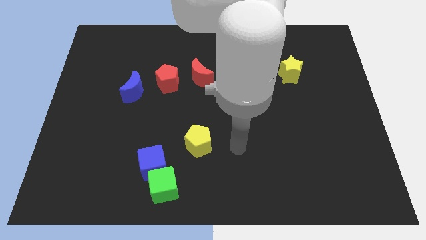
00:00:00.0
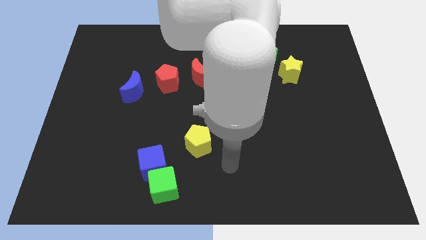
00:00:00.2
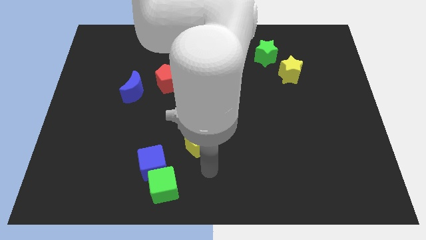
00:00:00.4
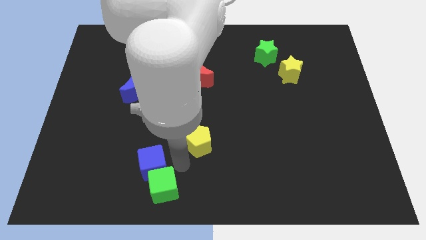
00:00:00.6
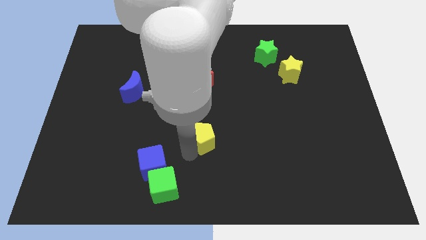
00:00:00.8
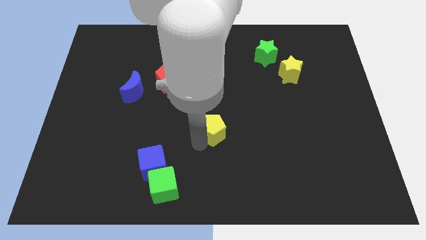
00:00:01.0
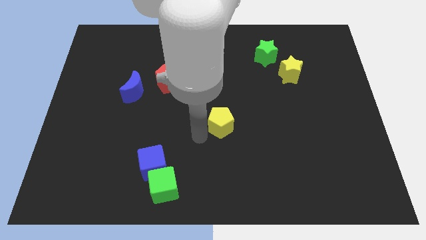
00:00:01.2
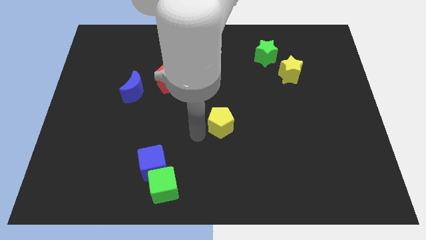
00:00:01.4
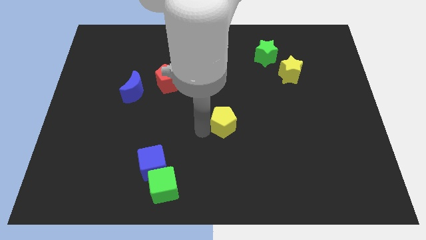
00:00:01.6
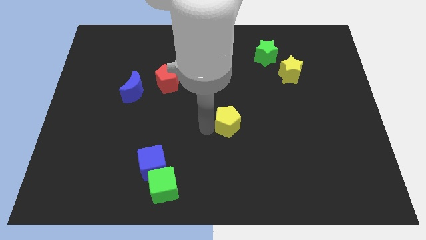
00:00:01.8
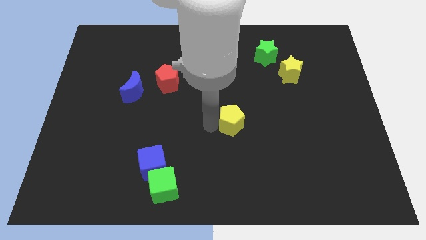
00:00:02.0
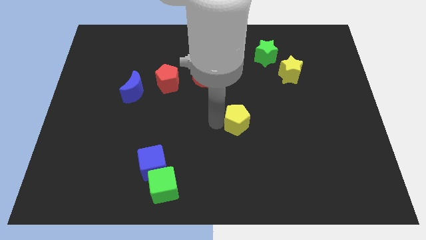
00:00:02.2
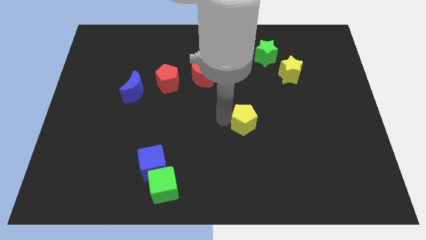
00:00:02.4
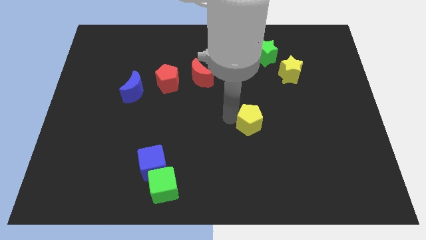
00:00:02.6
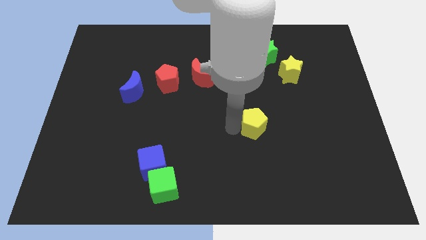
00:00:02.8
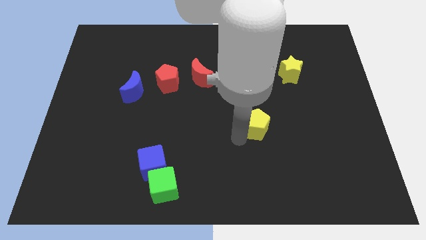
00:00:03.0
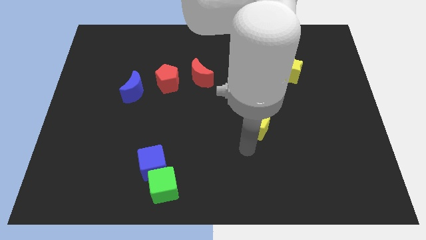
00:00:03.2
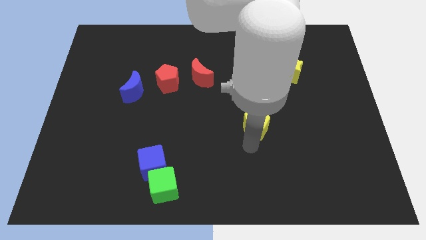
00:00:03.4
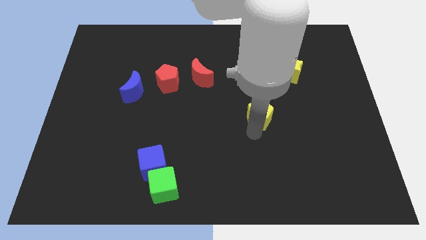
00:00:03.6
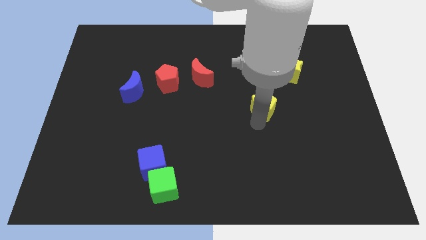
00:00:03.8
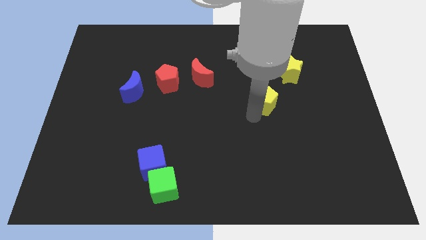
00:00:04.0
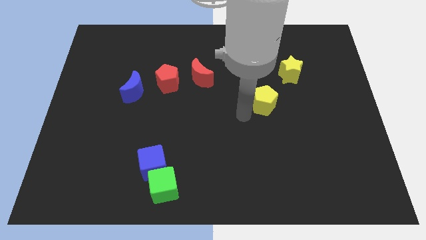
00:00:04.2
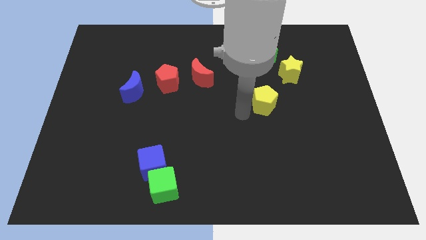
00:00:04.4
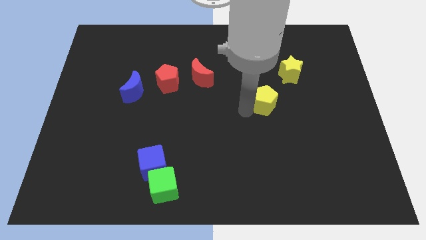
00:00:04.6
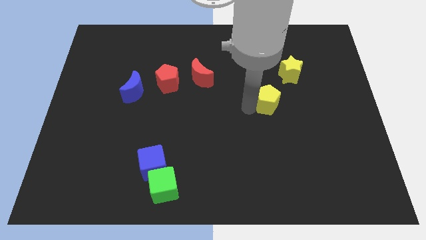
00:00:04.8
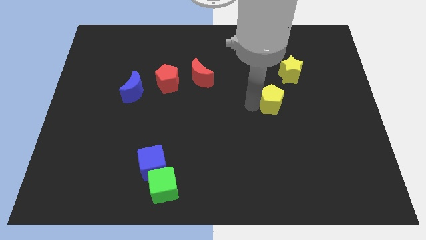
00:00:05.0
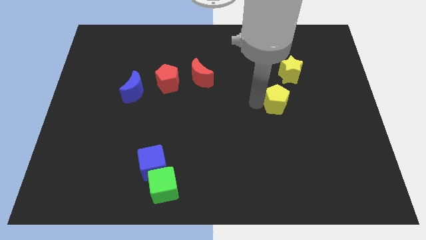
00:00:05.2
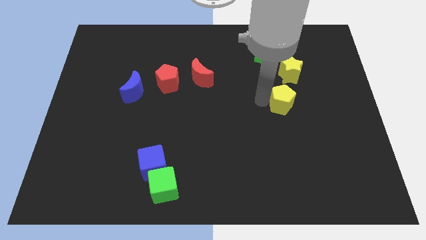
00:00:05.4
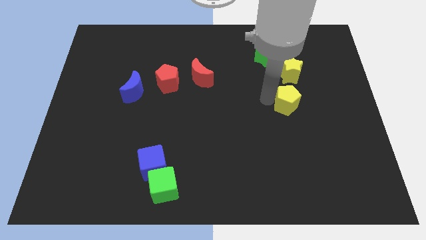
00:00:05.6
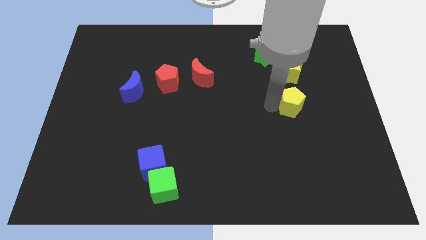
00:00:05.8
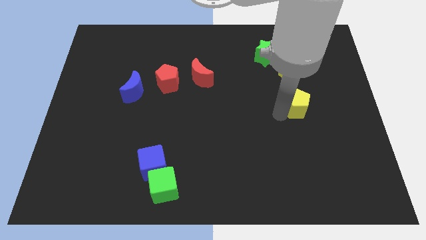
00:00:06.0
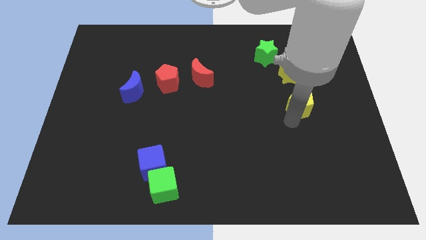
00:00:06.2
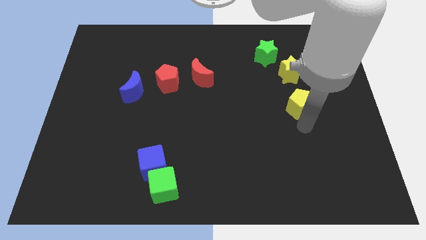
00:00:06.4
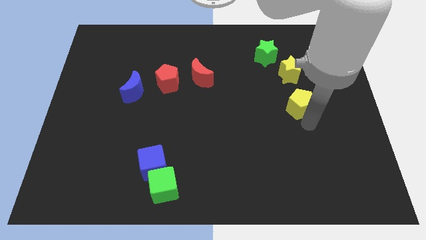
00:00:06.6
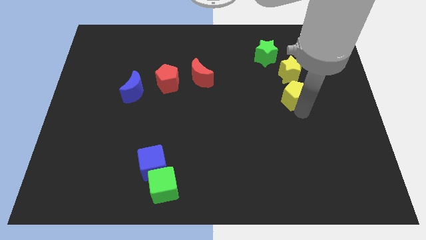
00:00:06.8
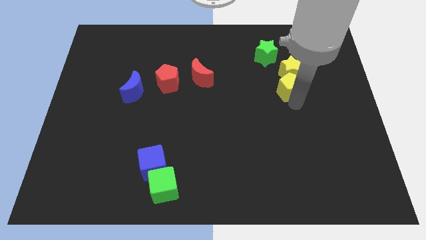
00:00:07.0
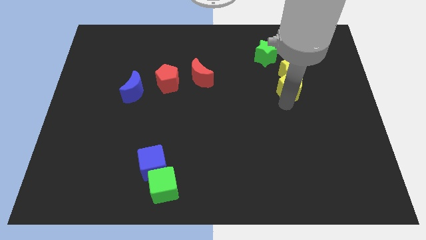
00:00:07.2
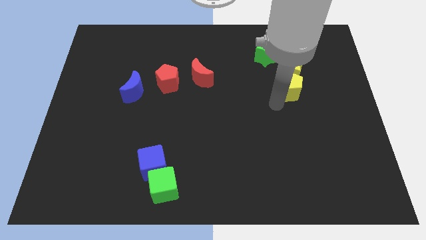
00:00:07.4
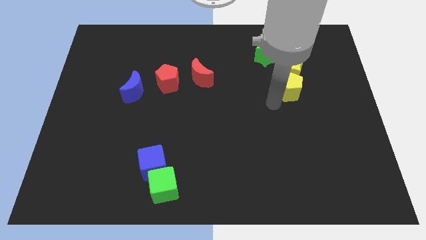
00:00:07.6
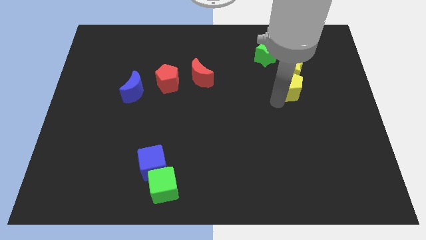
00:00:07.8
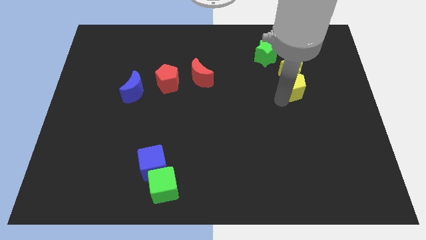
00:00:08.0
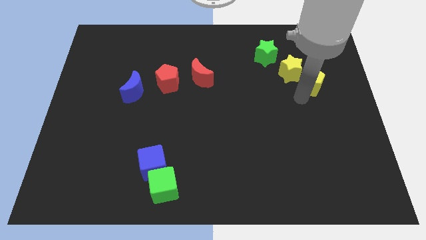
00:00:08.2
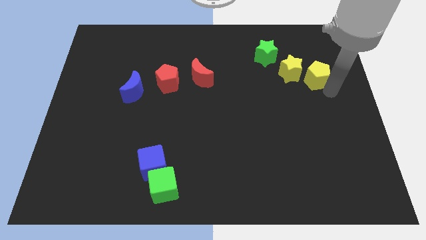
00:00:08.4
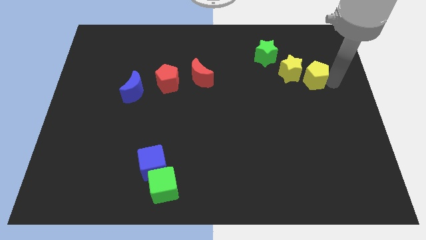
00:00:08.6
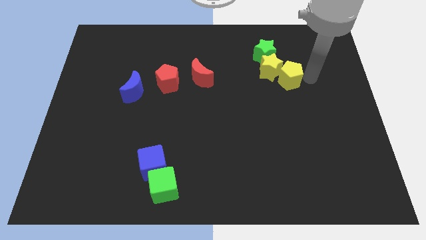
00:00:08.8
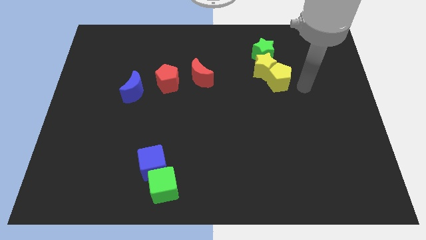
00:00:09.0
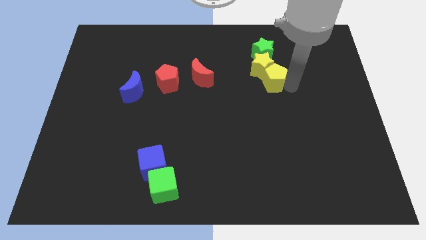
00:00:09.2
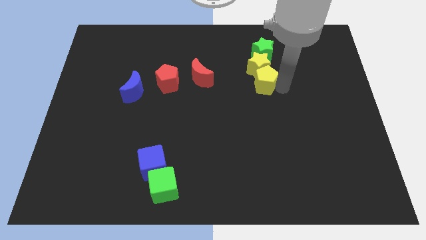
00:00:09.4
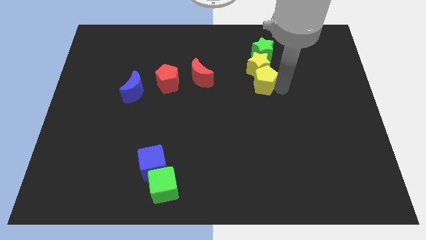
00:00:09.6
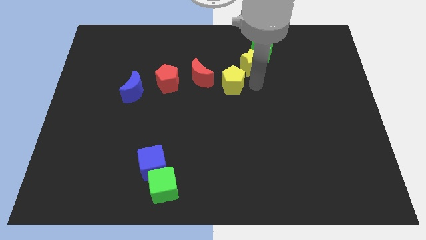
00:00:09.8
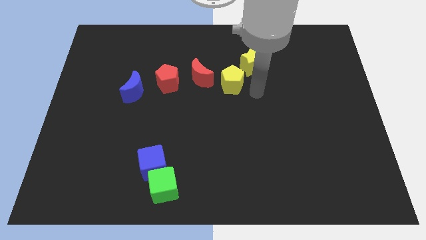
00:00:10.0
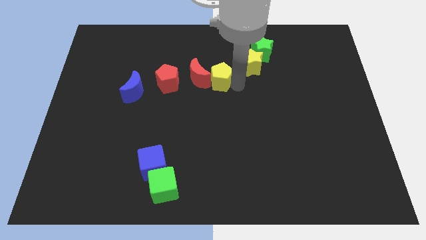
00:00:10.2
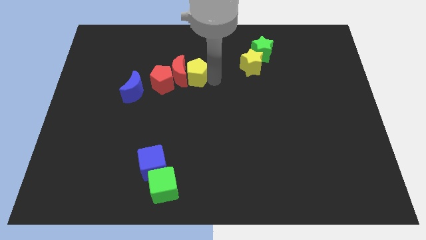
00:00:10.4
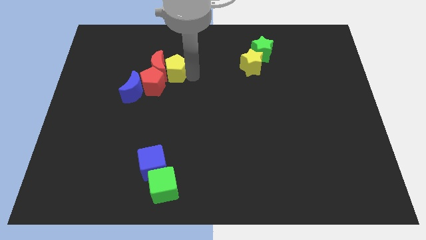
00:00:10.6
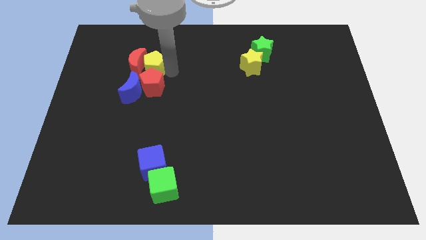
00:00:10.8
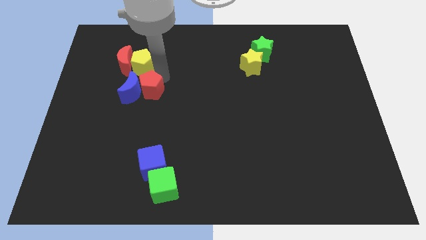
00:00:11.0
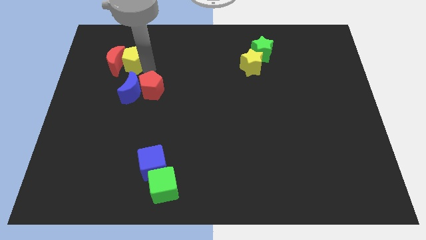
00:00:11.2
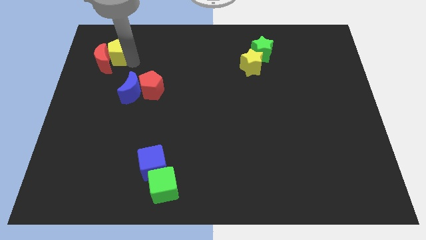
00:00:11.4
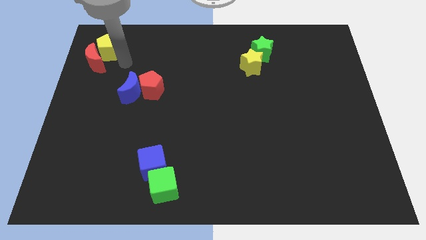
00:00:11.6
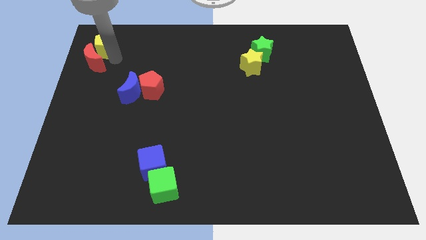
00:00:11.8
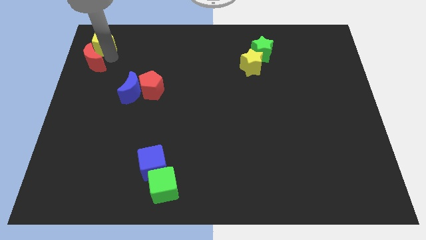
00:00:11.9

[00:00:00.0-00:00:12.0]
push the yellow pentagon to the top left

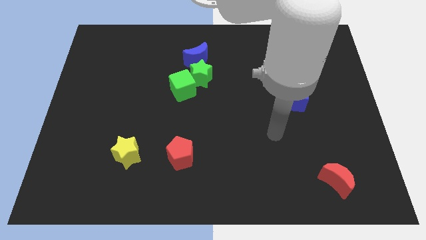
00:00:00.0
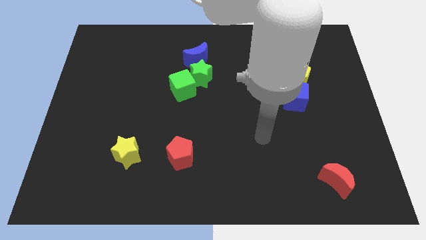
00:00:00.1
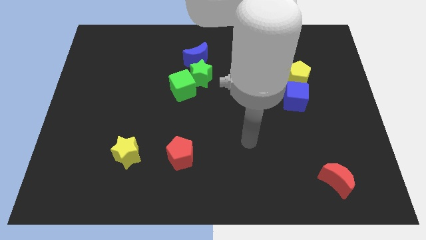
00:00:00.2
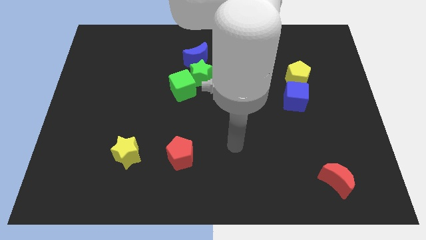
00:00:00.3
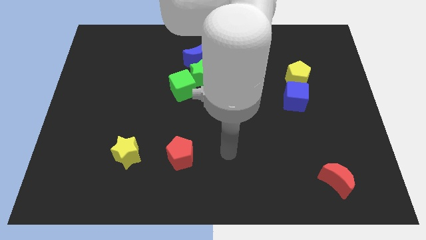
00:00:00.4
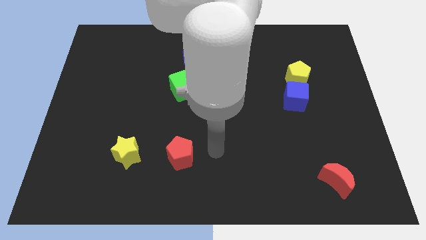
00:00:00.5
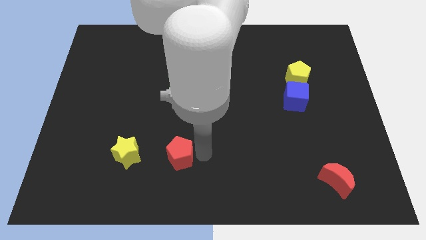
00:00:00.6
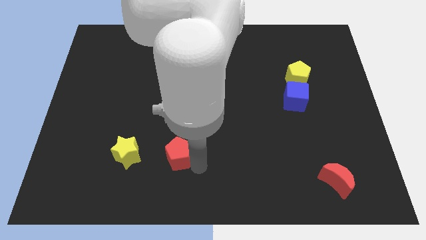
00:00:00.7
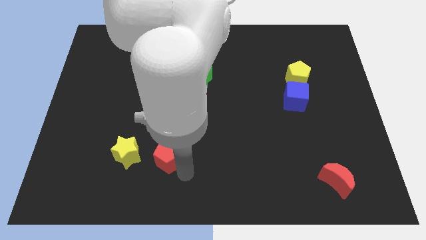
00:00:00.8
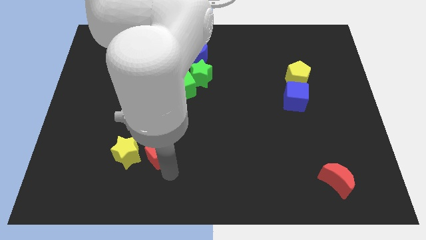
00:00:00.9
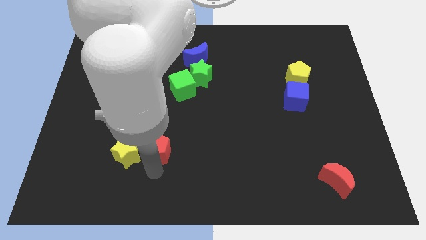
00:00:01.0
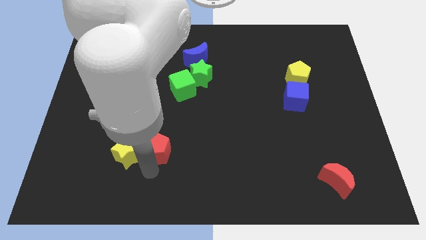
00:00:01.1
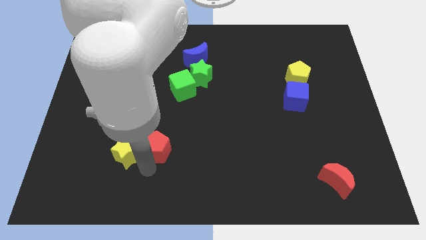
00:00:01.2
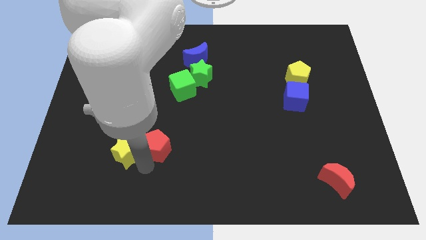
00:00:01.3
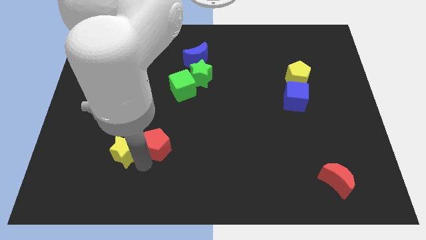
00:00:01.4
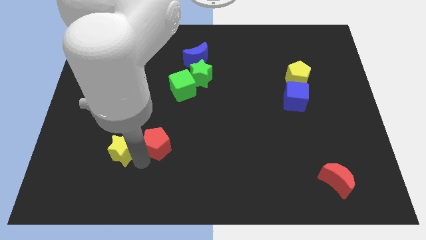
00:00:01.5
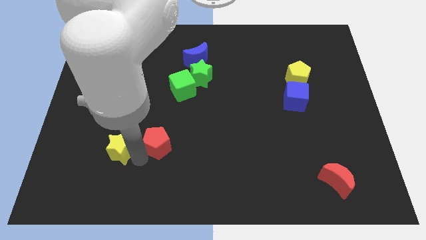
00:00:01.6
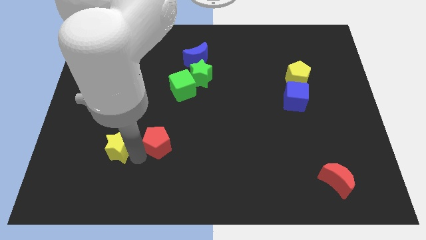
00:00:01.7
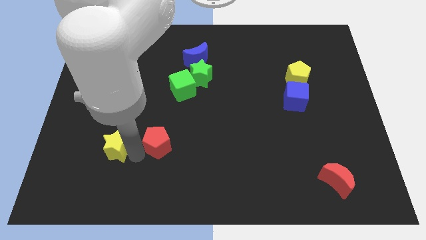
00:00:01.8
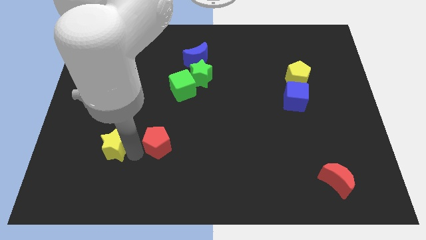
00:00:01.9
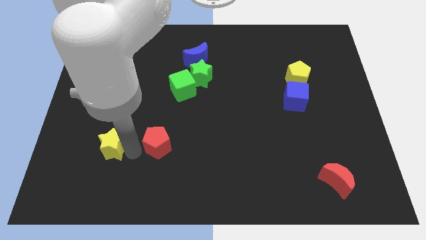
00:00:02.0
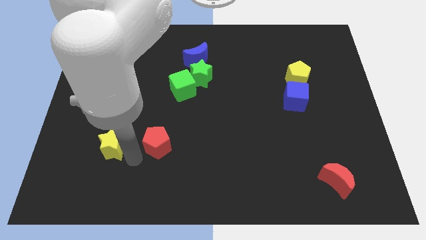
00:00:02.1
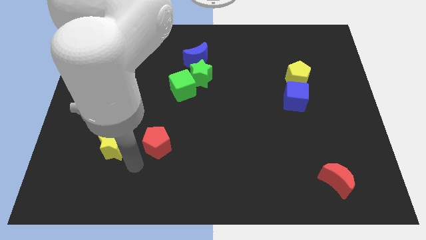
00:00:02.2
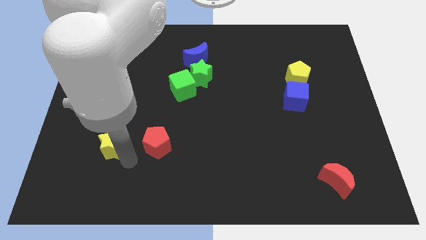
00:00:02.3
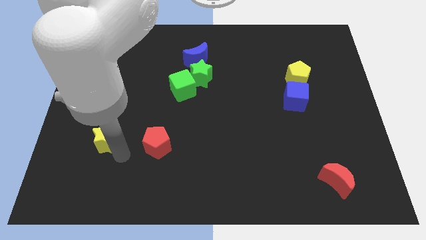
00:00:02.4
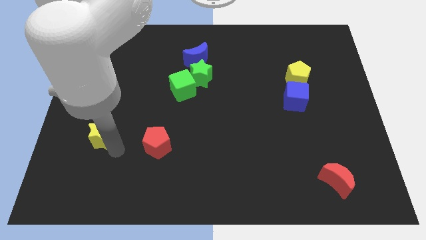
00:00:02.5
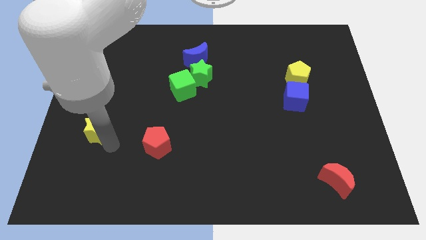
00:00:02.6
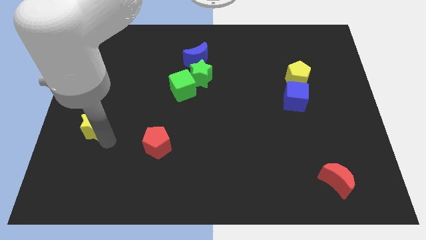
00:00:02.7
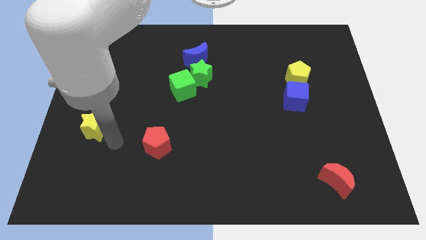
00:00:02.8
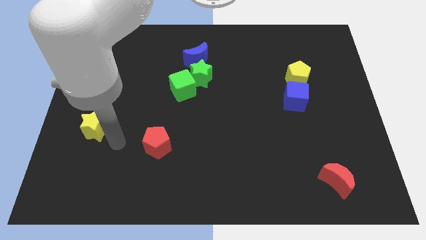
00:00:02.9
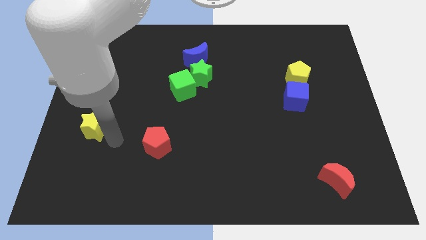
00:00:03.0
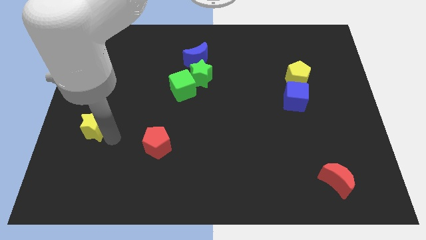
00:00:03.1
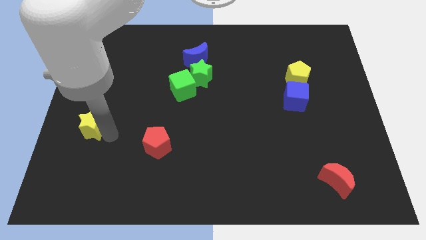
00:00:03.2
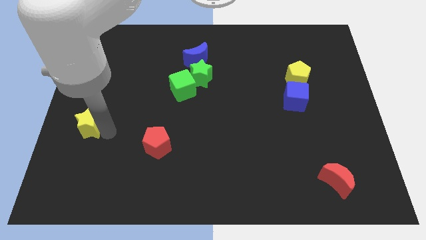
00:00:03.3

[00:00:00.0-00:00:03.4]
push the yellow star to the center left
